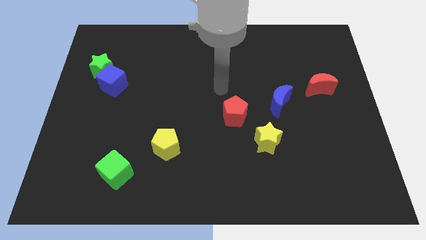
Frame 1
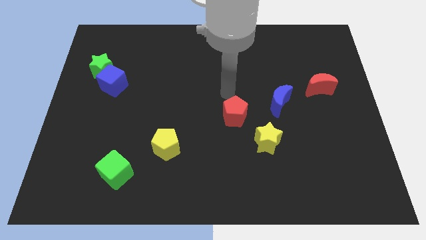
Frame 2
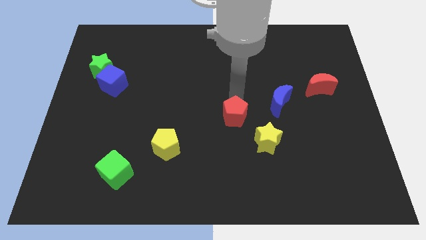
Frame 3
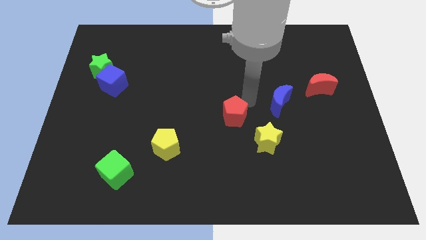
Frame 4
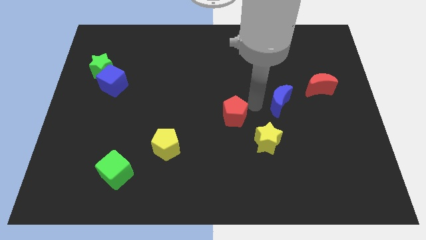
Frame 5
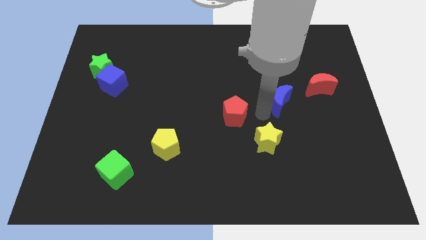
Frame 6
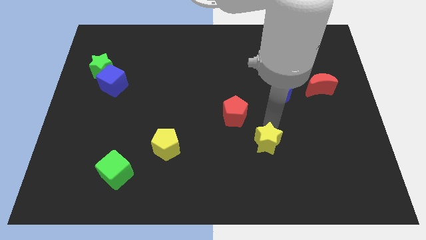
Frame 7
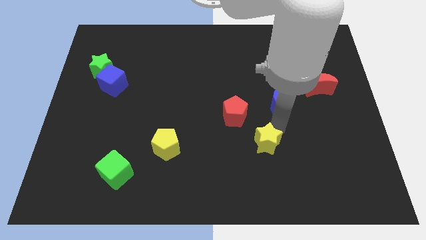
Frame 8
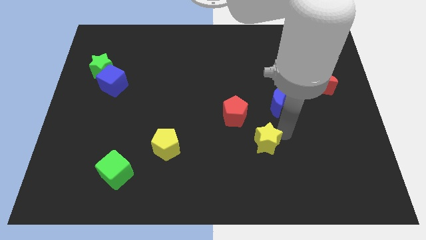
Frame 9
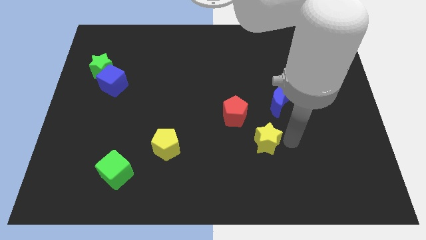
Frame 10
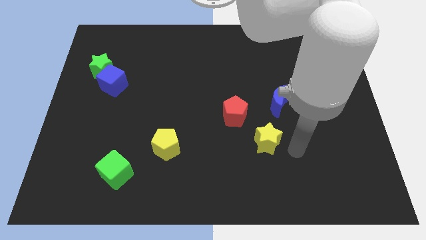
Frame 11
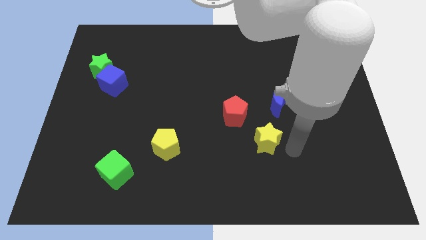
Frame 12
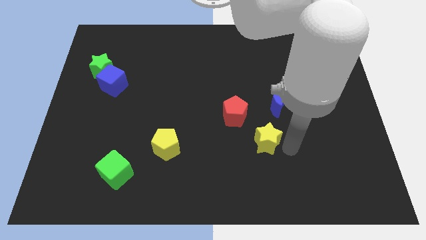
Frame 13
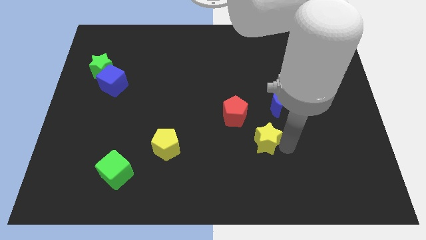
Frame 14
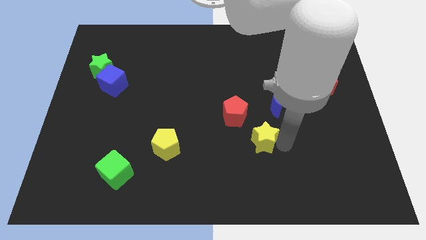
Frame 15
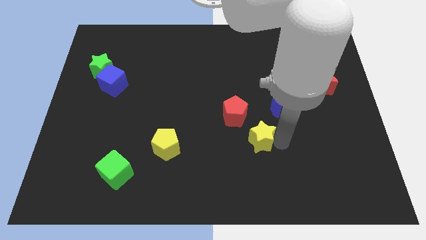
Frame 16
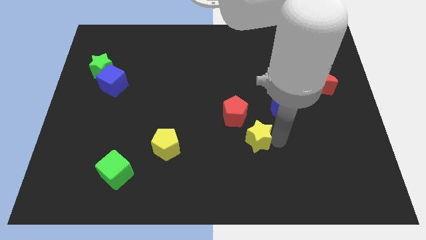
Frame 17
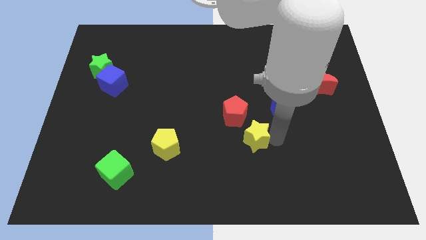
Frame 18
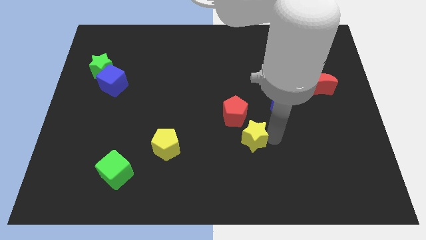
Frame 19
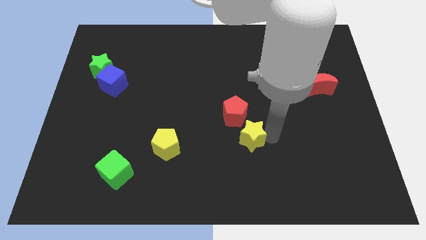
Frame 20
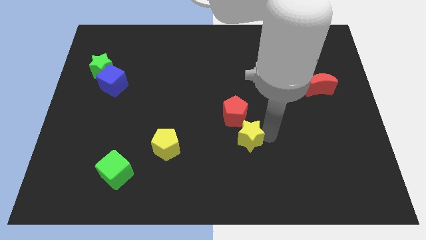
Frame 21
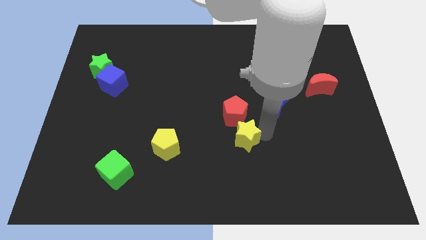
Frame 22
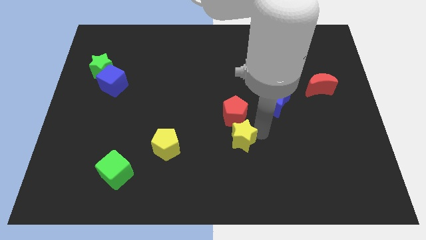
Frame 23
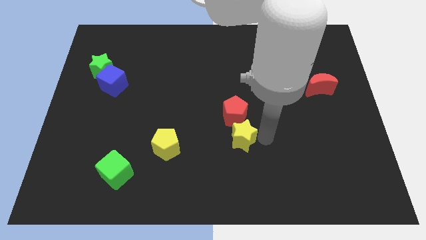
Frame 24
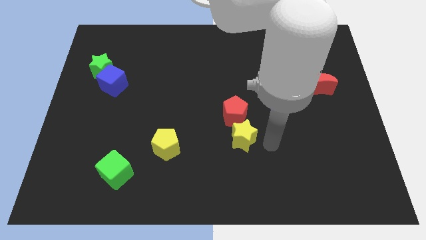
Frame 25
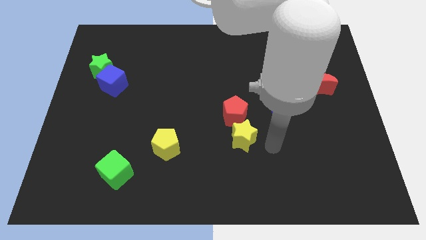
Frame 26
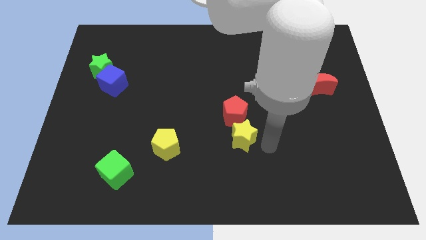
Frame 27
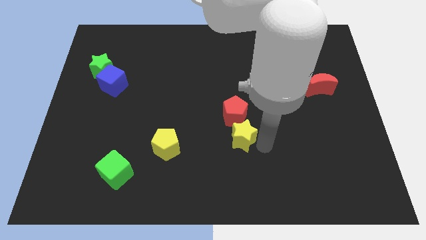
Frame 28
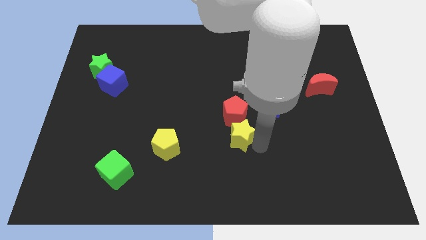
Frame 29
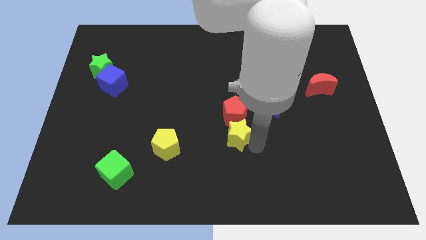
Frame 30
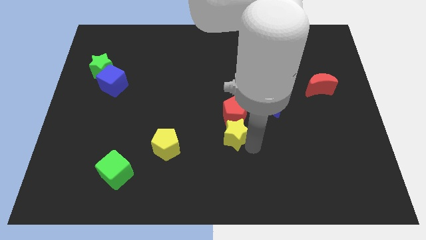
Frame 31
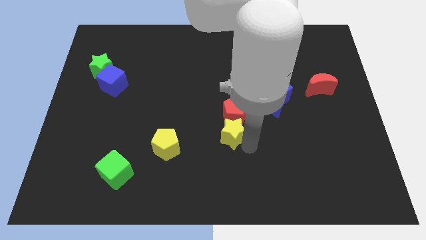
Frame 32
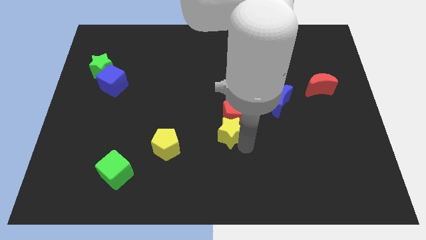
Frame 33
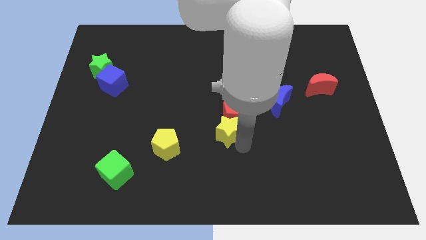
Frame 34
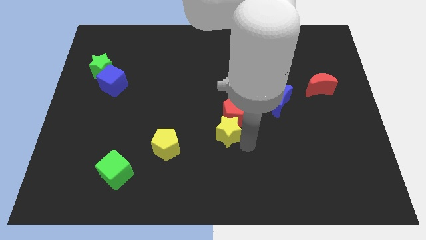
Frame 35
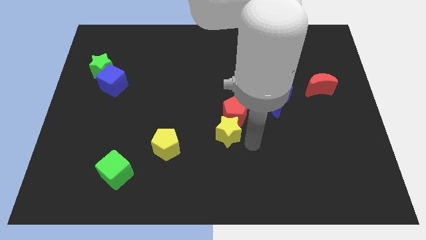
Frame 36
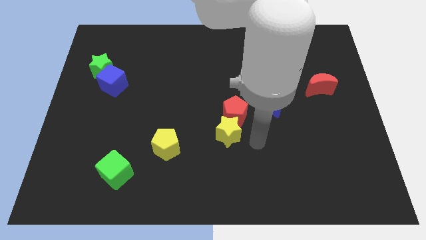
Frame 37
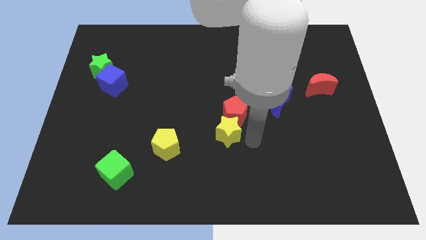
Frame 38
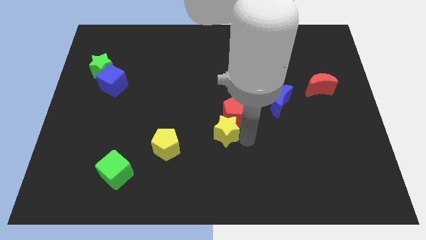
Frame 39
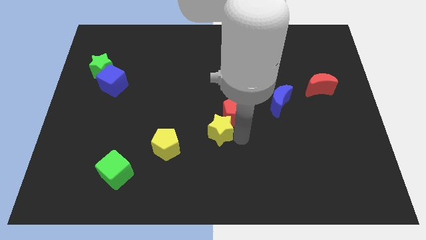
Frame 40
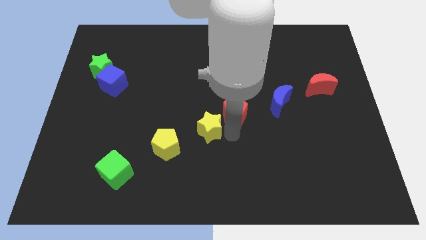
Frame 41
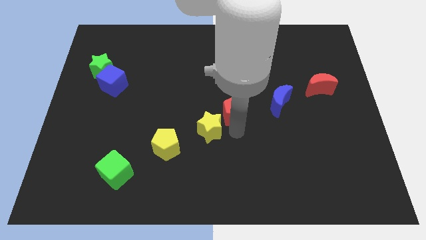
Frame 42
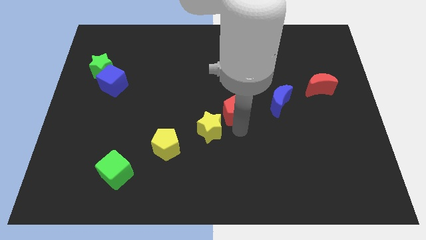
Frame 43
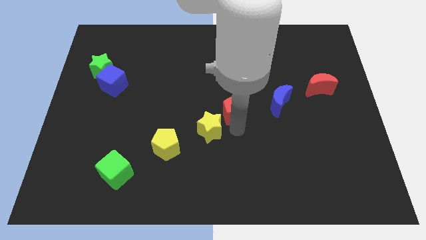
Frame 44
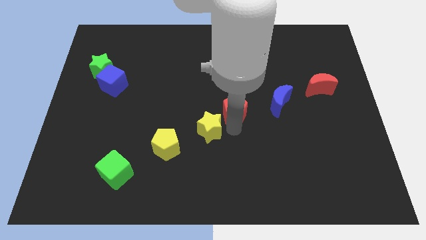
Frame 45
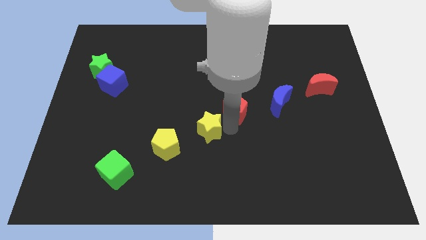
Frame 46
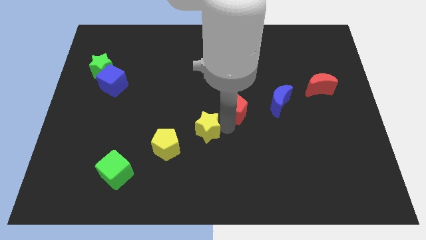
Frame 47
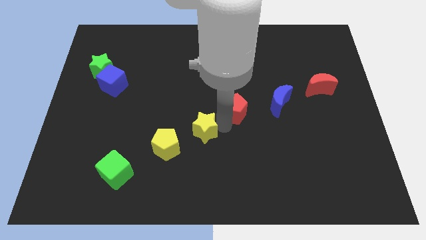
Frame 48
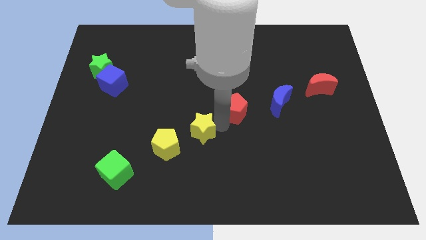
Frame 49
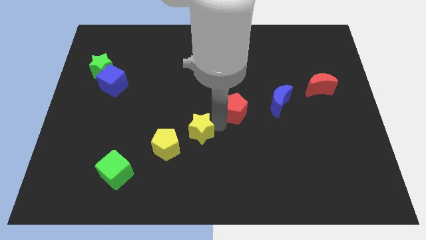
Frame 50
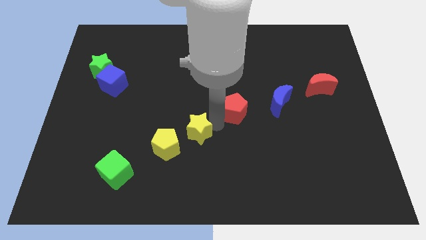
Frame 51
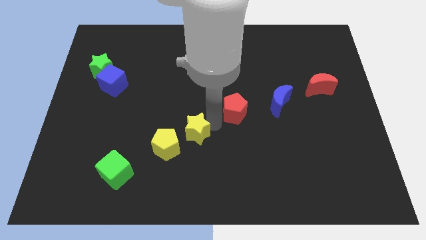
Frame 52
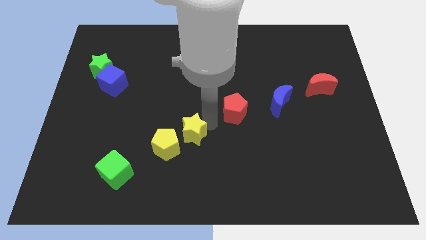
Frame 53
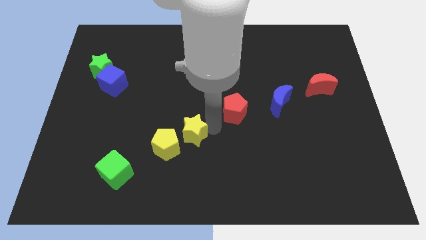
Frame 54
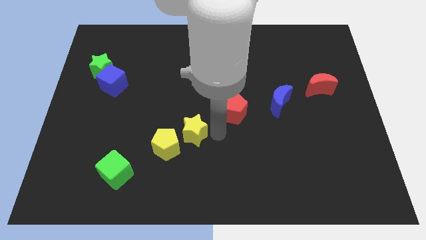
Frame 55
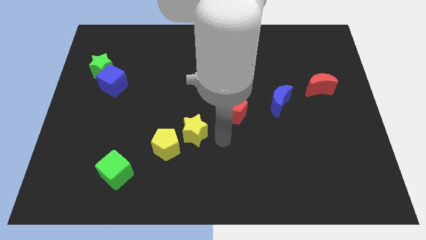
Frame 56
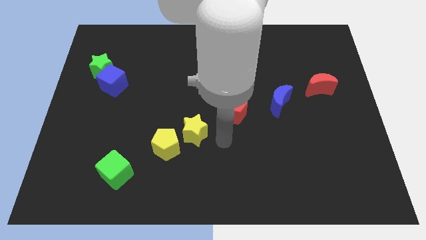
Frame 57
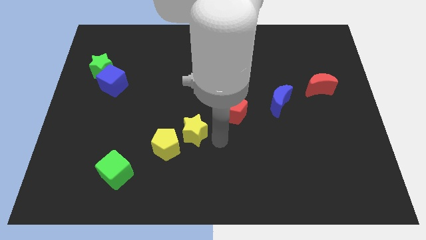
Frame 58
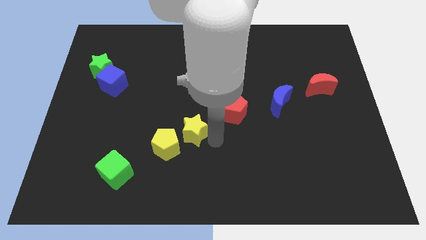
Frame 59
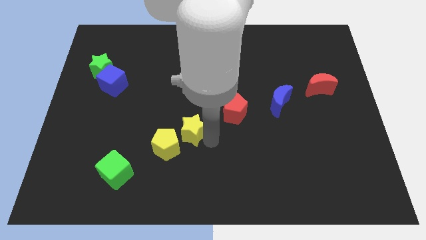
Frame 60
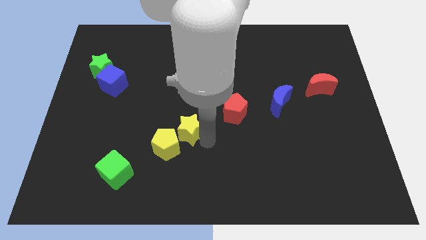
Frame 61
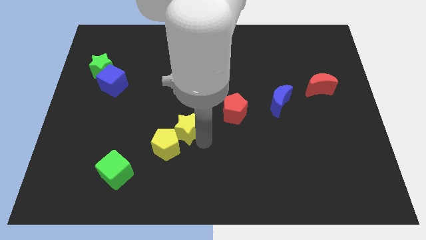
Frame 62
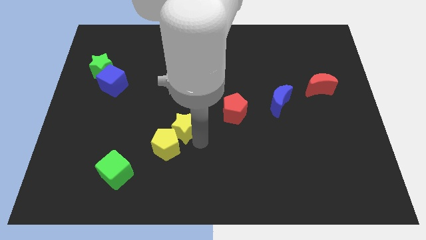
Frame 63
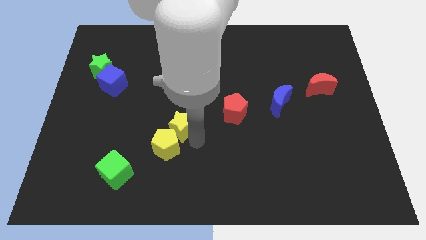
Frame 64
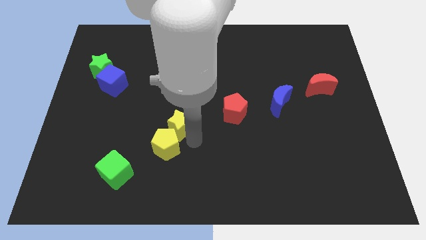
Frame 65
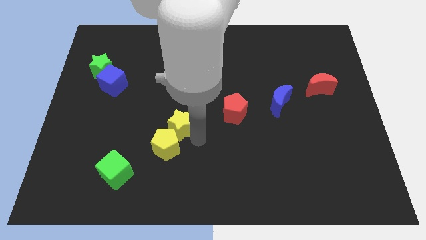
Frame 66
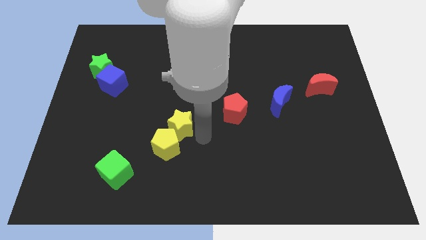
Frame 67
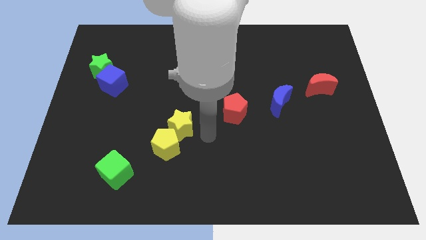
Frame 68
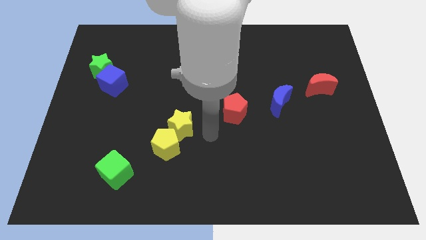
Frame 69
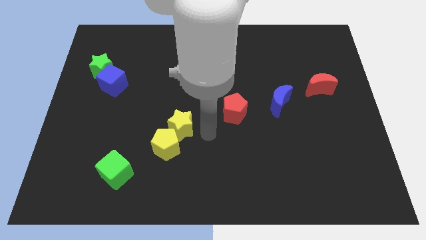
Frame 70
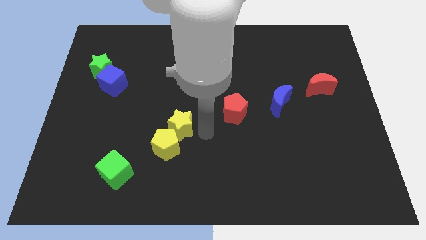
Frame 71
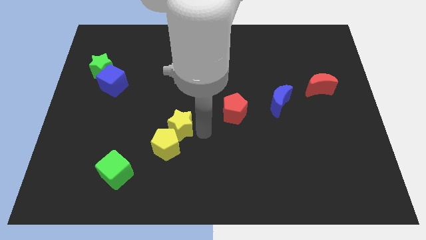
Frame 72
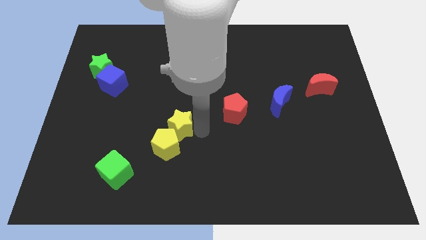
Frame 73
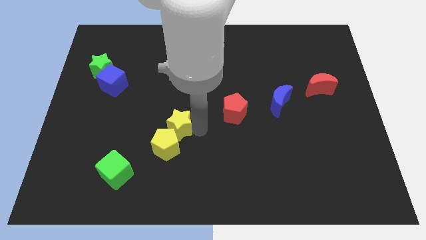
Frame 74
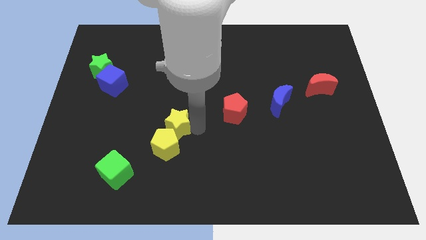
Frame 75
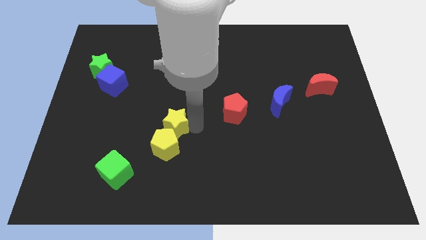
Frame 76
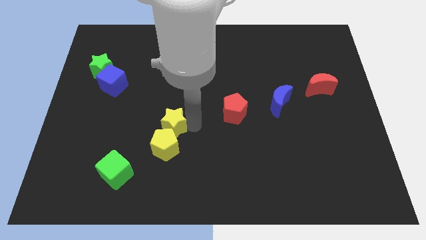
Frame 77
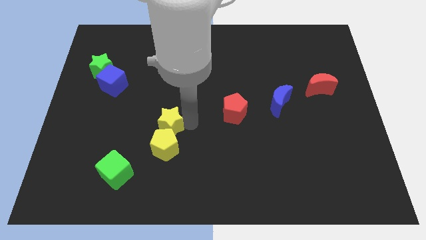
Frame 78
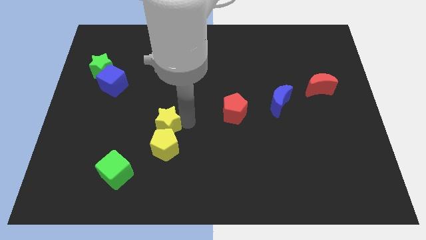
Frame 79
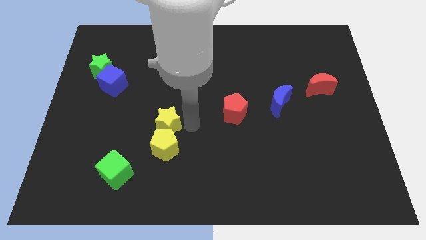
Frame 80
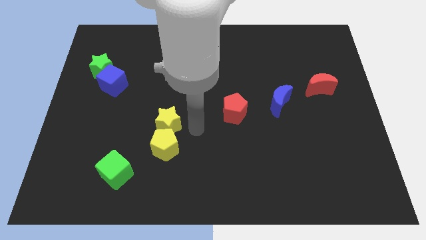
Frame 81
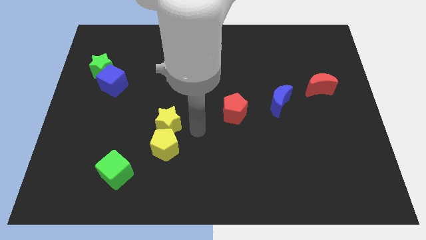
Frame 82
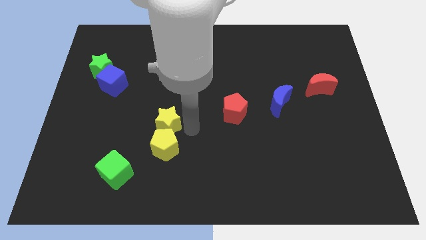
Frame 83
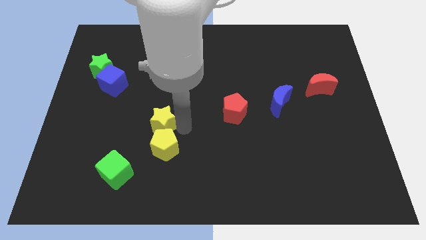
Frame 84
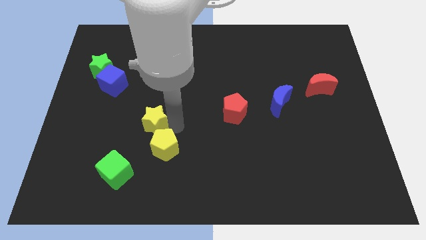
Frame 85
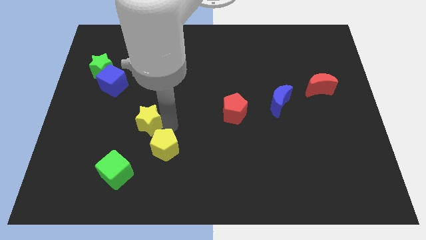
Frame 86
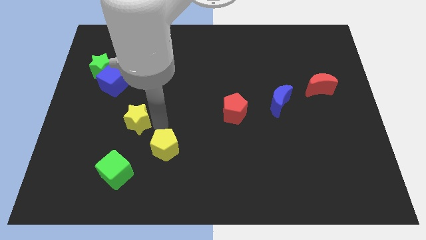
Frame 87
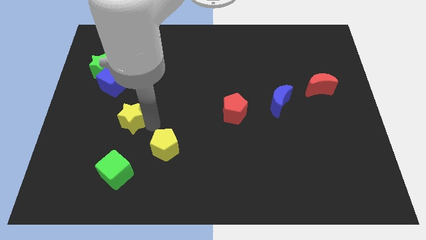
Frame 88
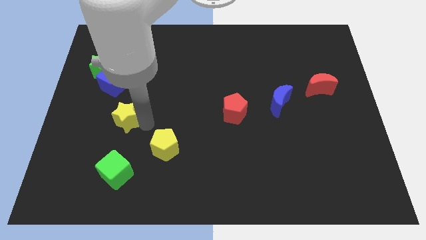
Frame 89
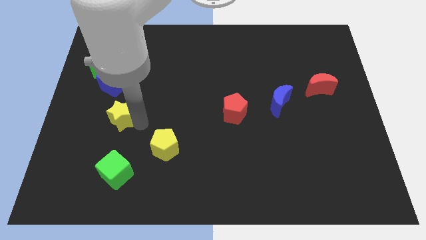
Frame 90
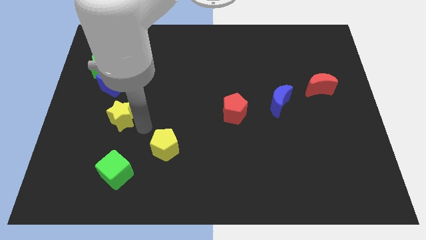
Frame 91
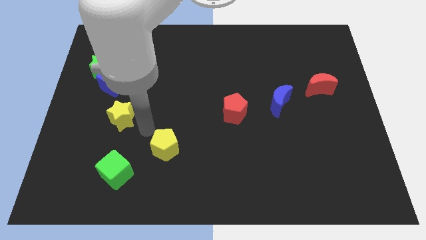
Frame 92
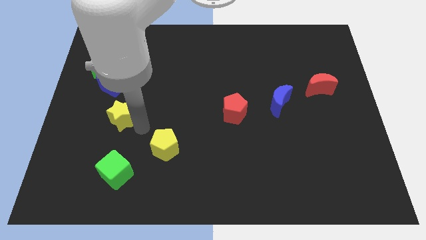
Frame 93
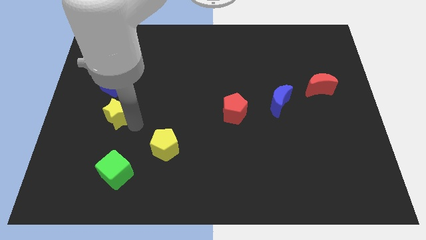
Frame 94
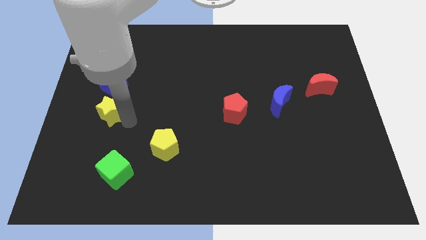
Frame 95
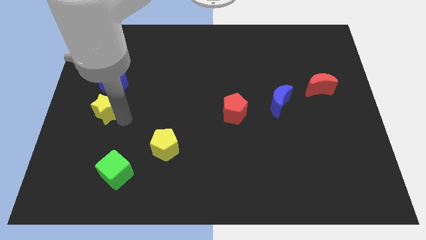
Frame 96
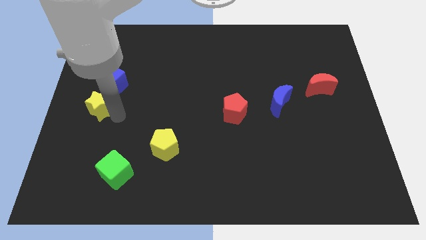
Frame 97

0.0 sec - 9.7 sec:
put the yellow star to the center left
